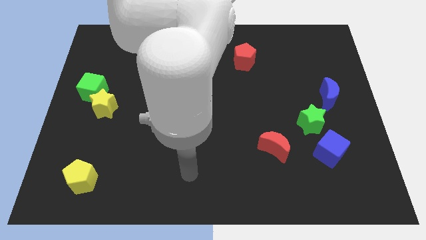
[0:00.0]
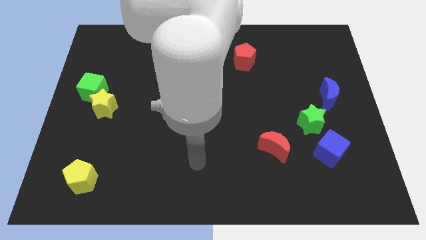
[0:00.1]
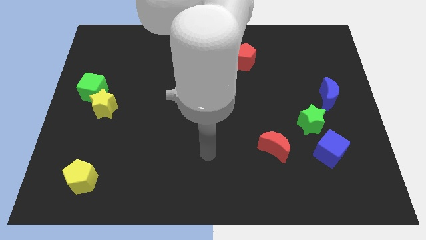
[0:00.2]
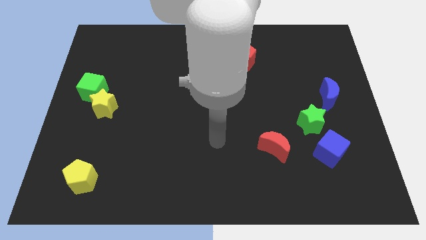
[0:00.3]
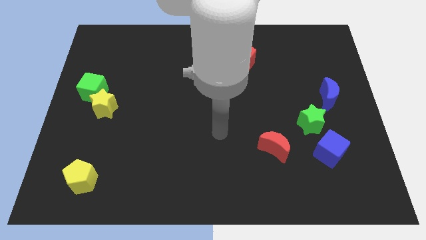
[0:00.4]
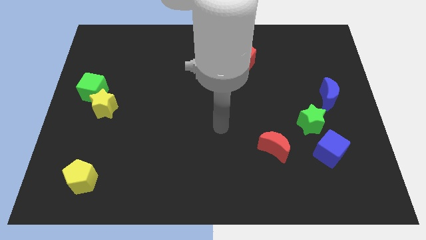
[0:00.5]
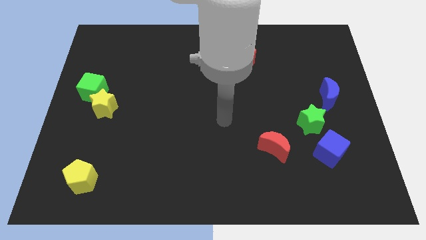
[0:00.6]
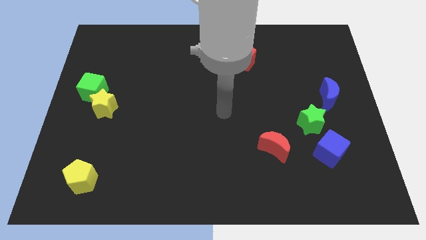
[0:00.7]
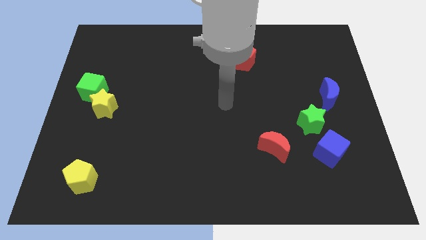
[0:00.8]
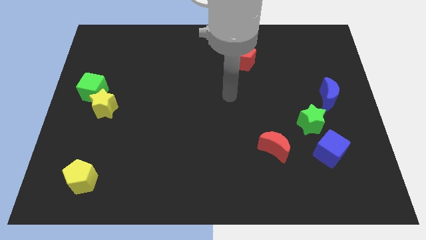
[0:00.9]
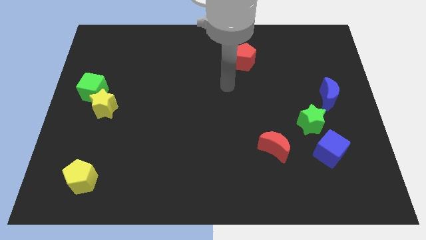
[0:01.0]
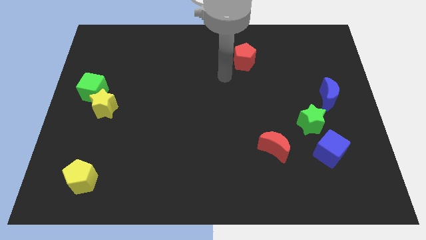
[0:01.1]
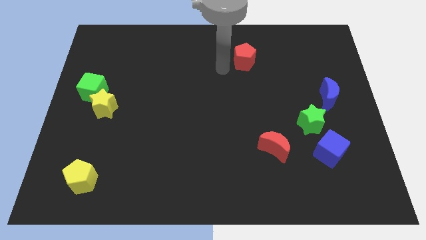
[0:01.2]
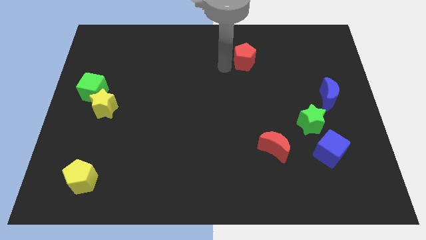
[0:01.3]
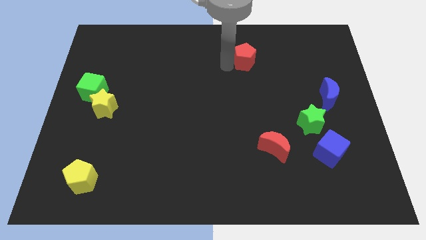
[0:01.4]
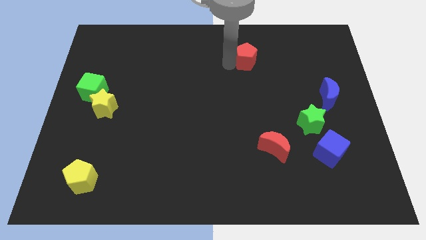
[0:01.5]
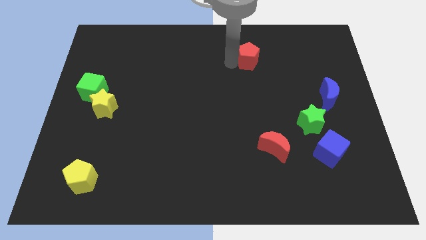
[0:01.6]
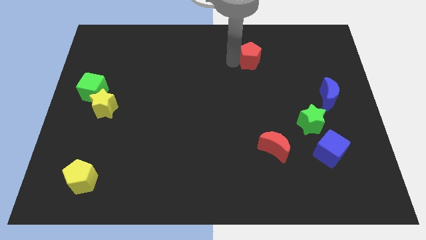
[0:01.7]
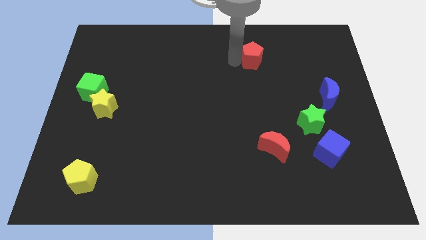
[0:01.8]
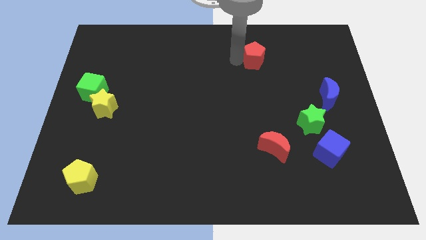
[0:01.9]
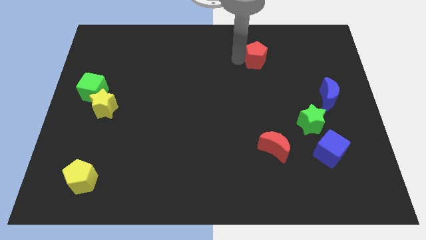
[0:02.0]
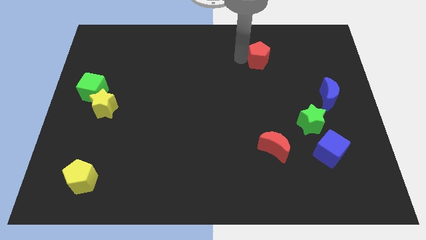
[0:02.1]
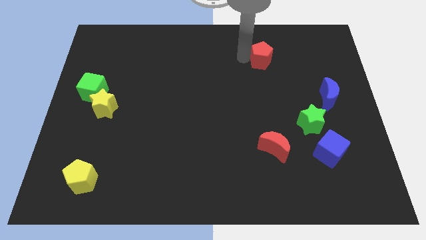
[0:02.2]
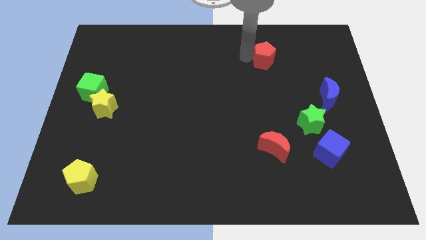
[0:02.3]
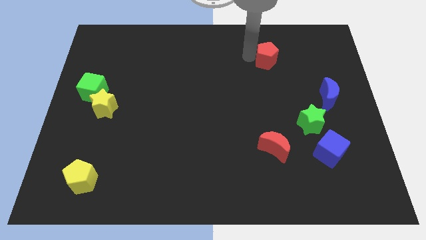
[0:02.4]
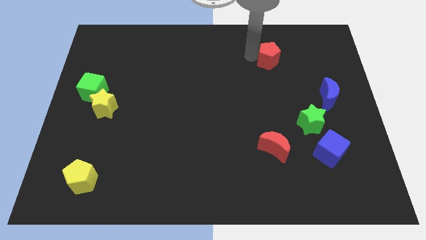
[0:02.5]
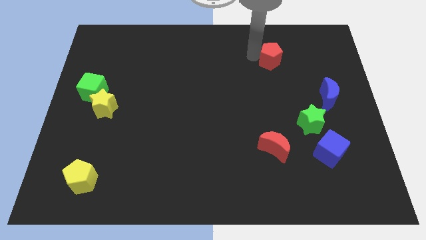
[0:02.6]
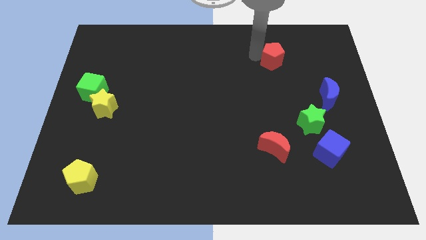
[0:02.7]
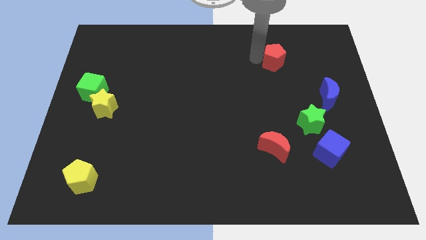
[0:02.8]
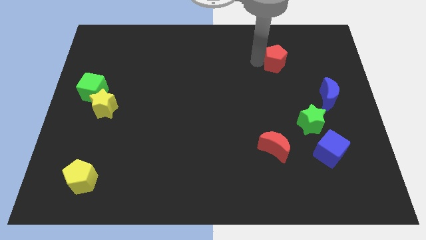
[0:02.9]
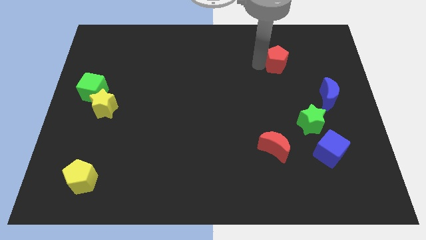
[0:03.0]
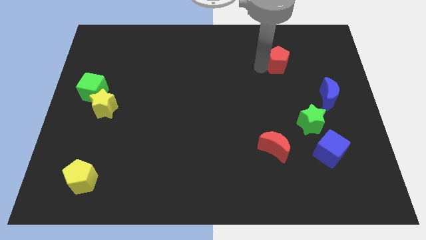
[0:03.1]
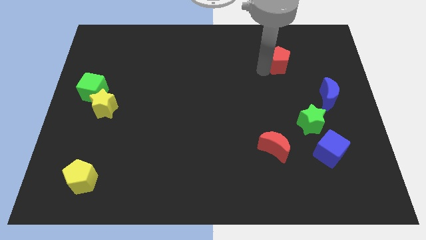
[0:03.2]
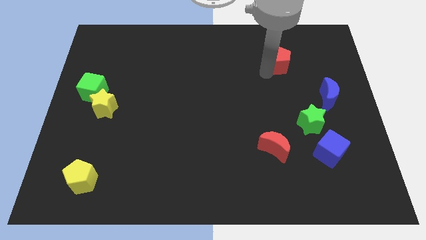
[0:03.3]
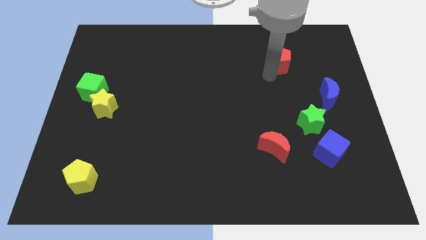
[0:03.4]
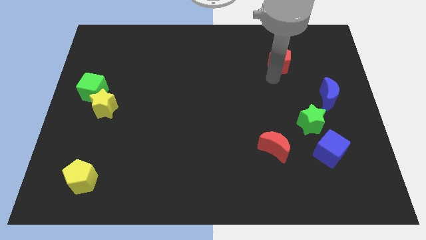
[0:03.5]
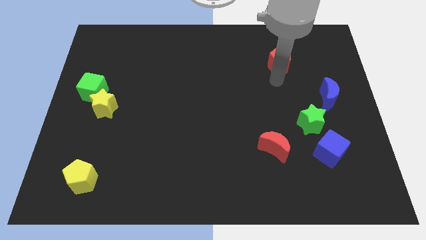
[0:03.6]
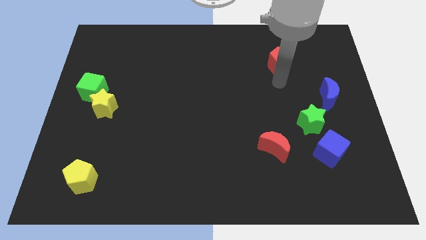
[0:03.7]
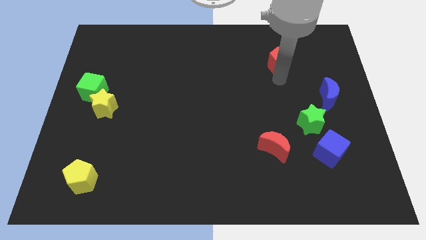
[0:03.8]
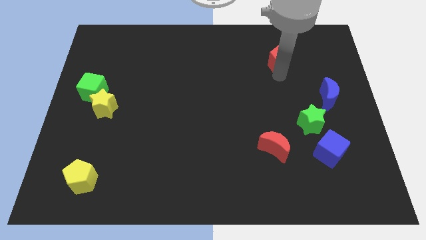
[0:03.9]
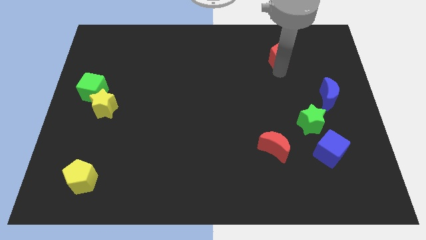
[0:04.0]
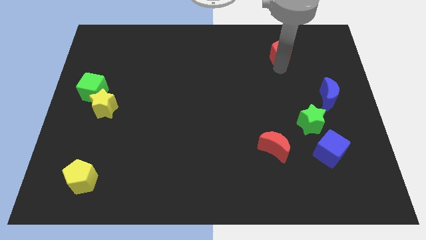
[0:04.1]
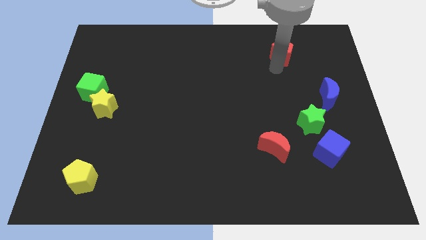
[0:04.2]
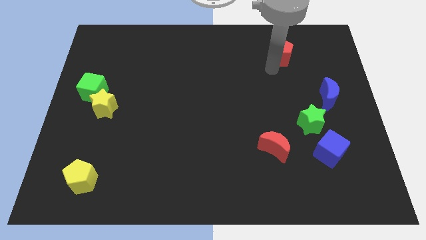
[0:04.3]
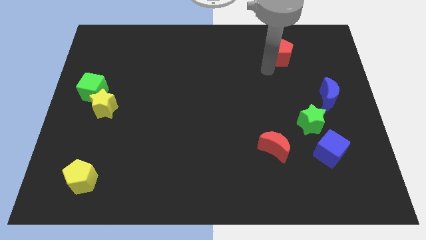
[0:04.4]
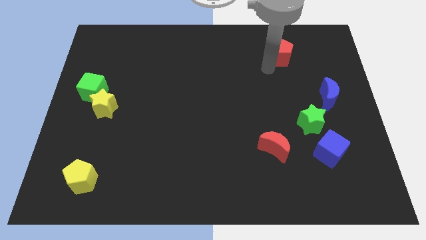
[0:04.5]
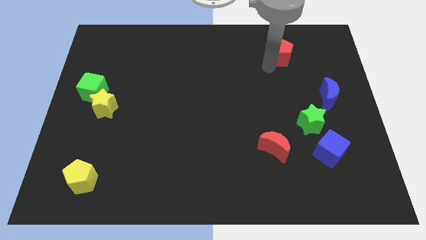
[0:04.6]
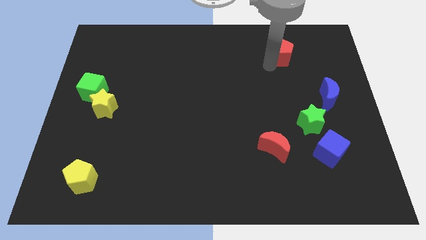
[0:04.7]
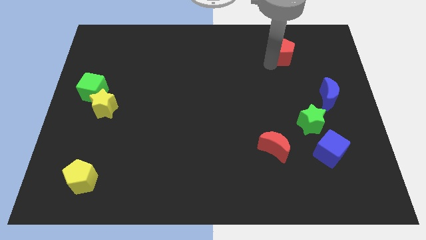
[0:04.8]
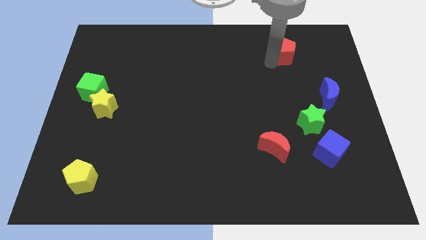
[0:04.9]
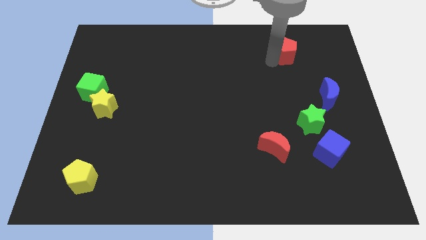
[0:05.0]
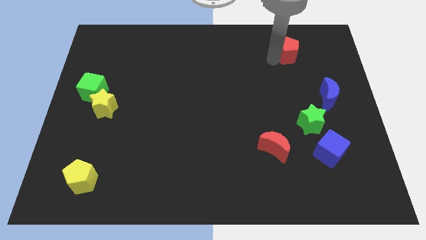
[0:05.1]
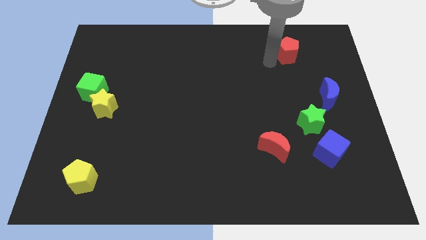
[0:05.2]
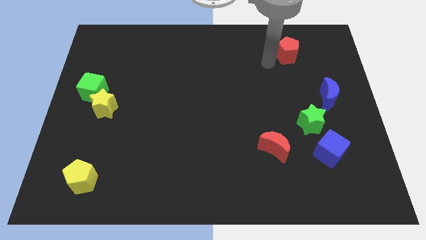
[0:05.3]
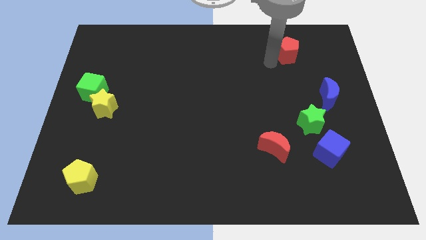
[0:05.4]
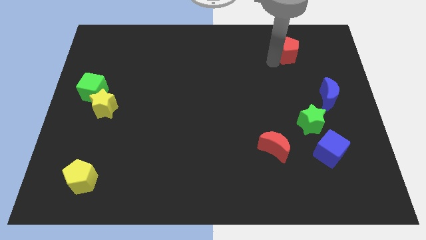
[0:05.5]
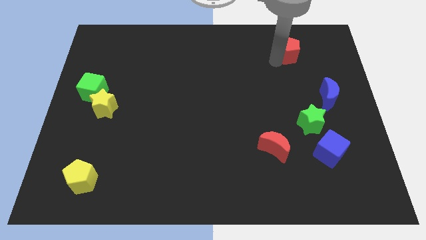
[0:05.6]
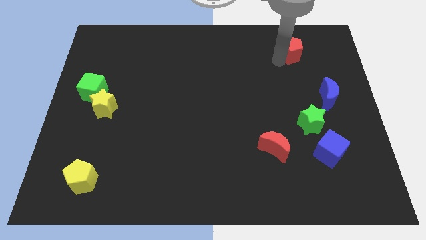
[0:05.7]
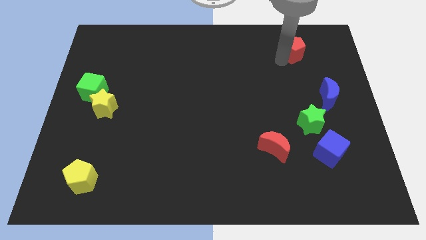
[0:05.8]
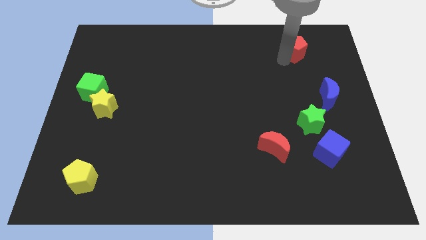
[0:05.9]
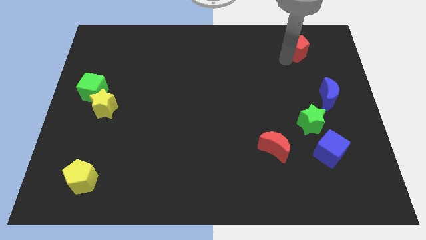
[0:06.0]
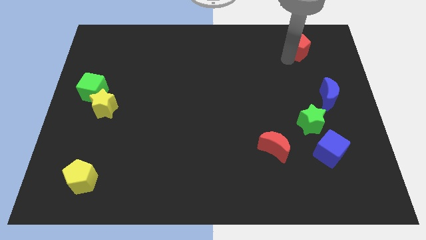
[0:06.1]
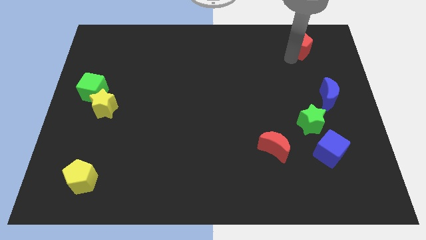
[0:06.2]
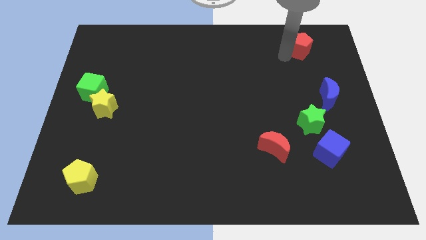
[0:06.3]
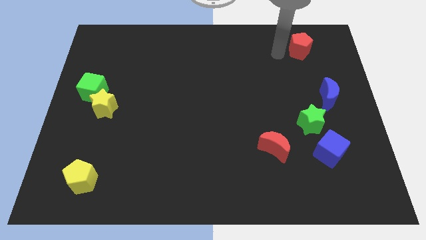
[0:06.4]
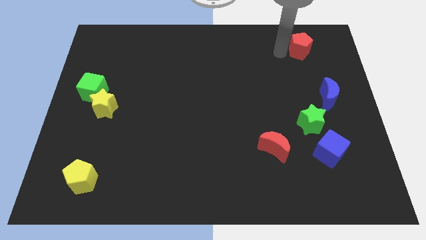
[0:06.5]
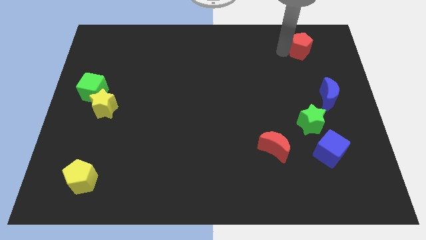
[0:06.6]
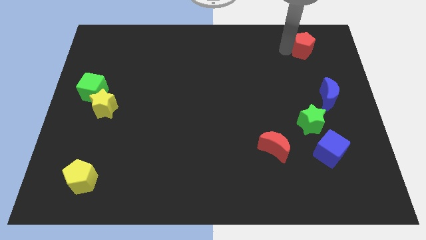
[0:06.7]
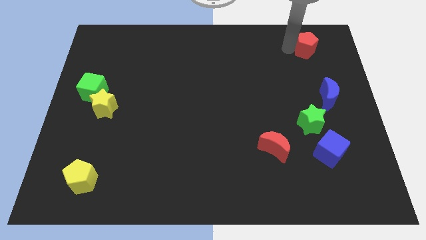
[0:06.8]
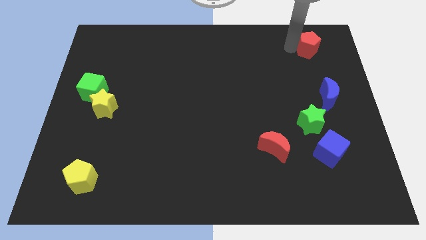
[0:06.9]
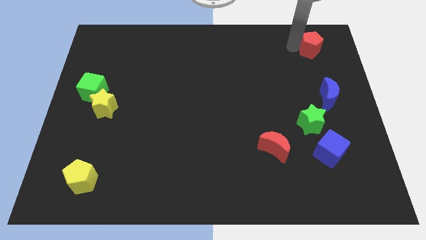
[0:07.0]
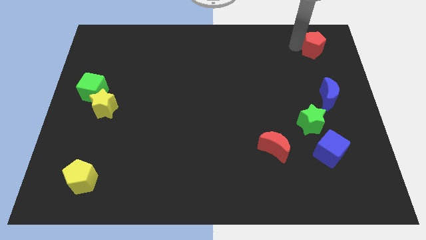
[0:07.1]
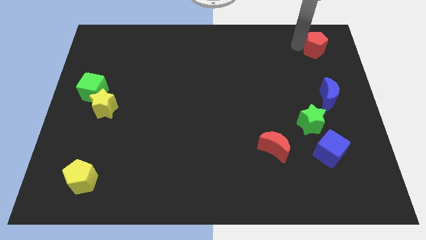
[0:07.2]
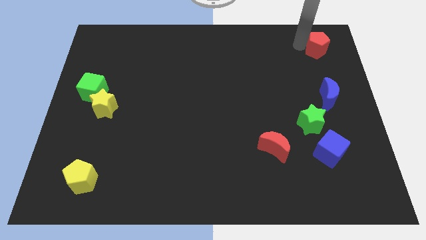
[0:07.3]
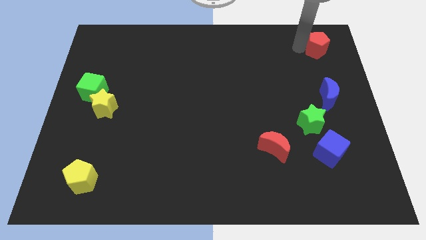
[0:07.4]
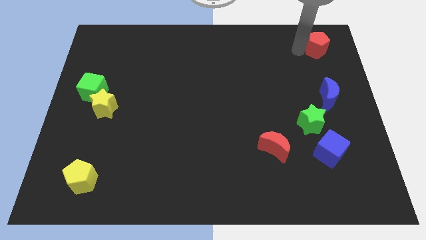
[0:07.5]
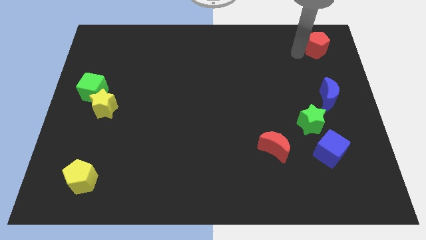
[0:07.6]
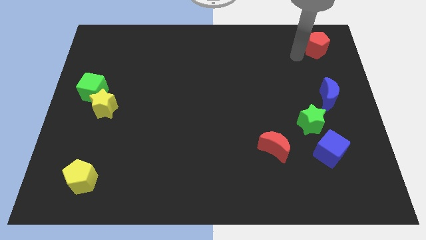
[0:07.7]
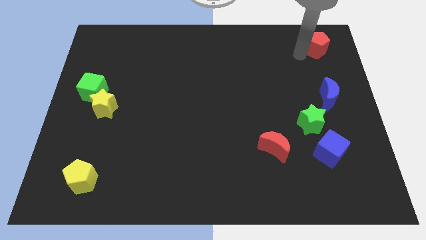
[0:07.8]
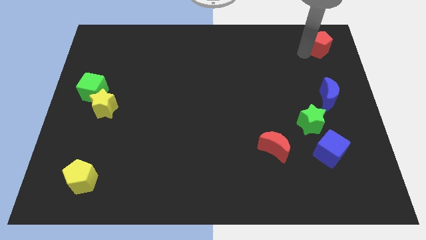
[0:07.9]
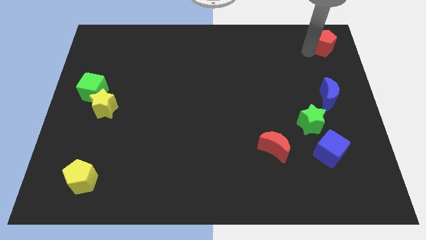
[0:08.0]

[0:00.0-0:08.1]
move the red pentagon to the top right
